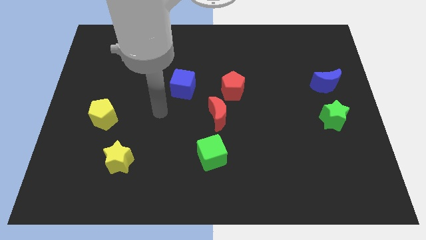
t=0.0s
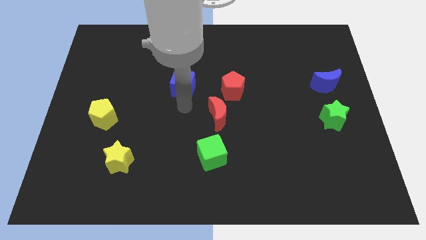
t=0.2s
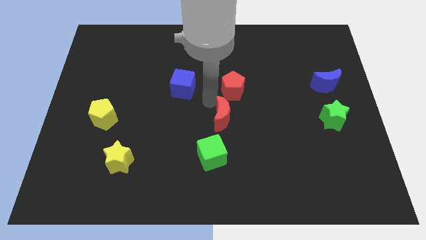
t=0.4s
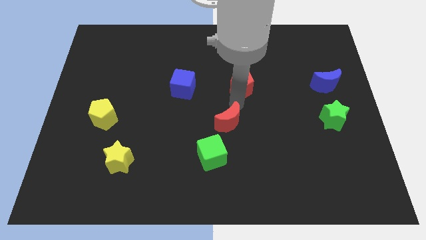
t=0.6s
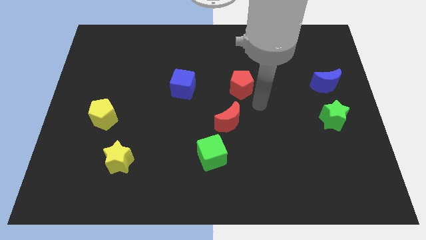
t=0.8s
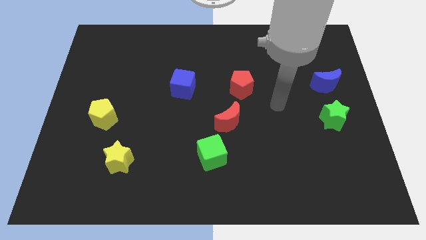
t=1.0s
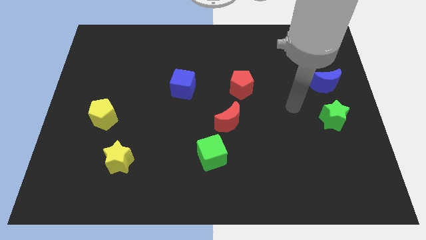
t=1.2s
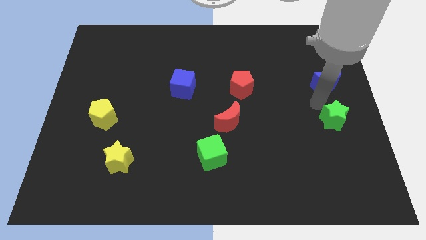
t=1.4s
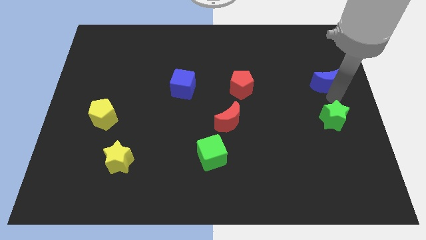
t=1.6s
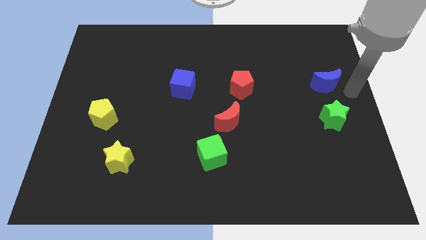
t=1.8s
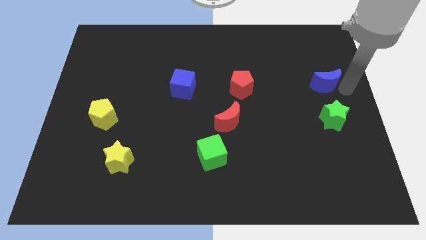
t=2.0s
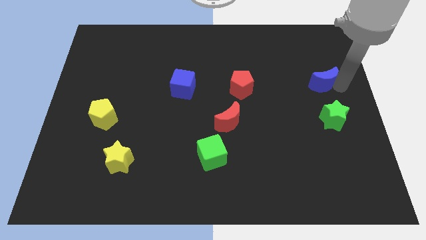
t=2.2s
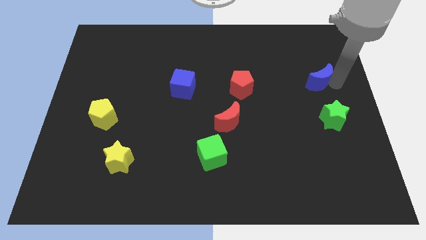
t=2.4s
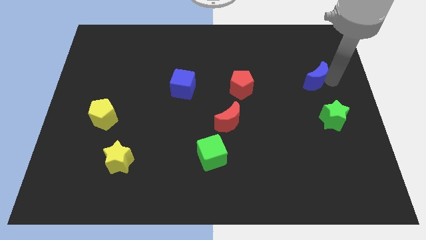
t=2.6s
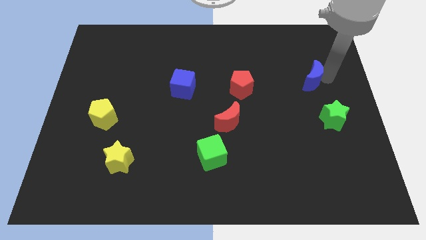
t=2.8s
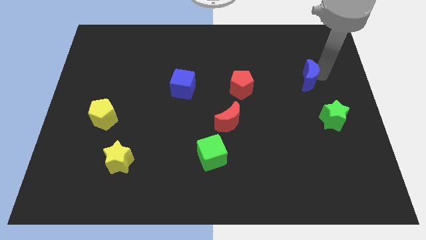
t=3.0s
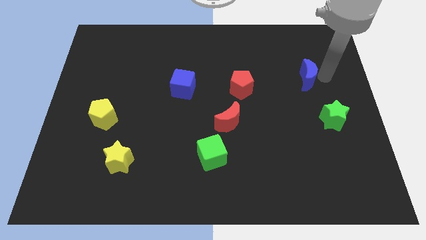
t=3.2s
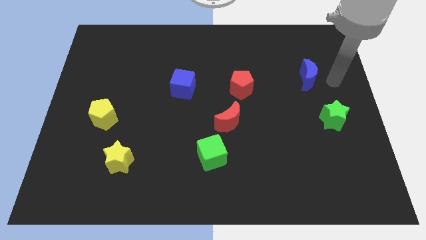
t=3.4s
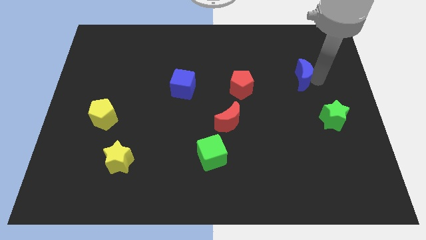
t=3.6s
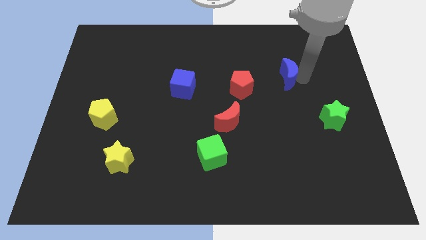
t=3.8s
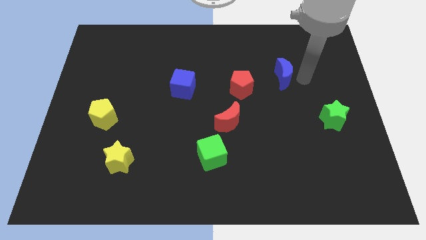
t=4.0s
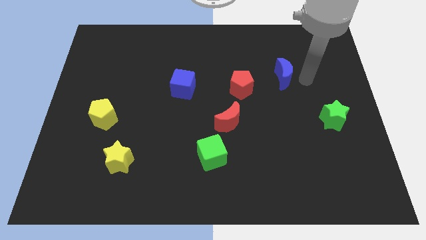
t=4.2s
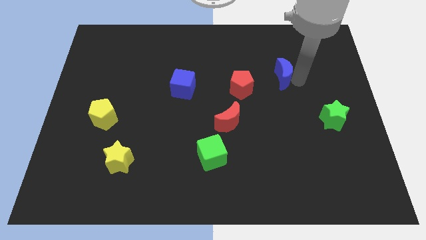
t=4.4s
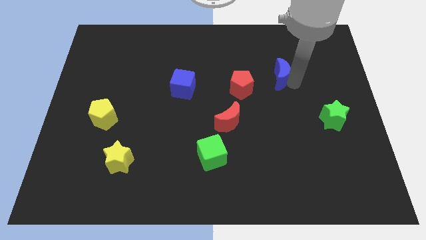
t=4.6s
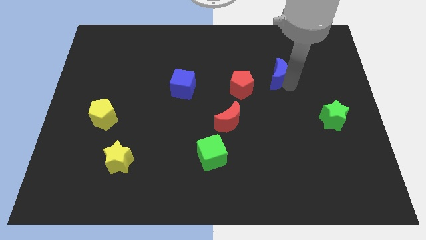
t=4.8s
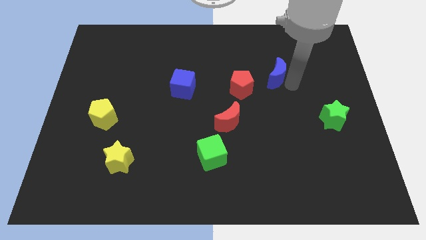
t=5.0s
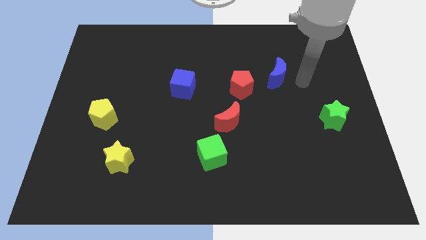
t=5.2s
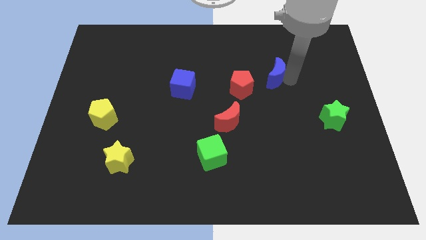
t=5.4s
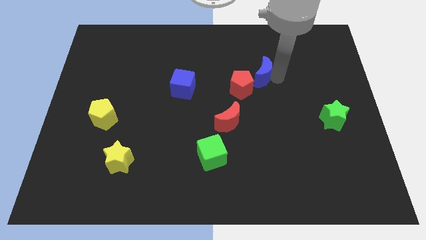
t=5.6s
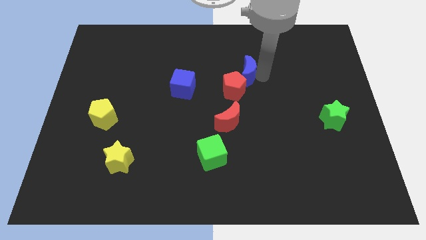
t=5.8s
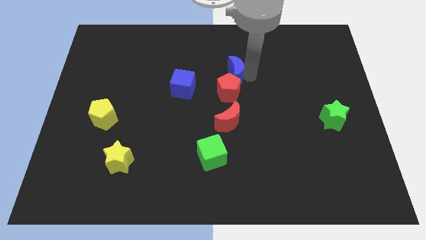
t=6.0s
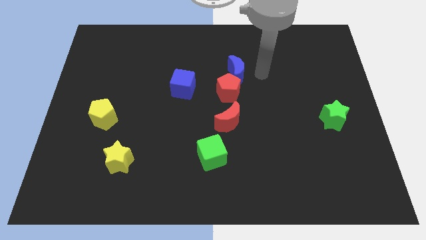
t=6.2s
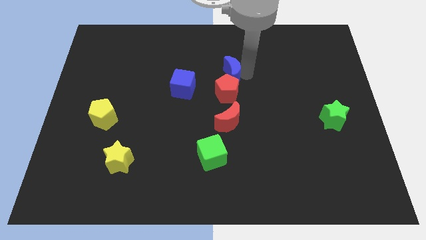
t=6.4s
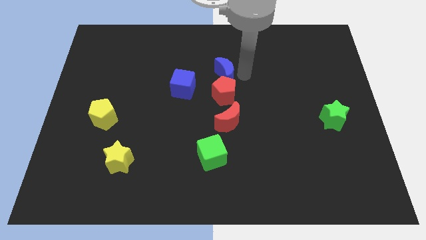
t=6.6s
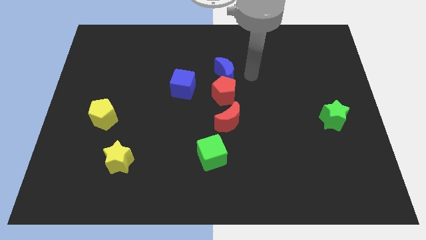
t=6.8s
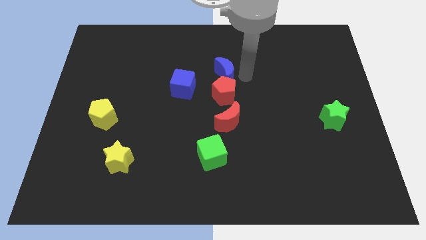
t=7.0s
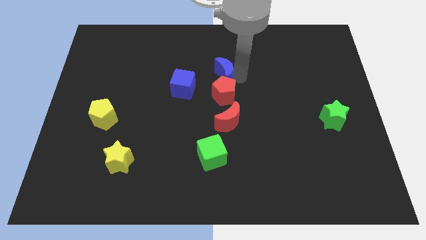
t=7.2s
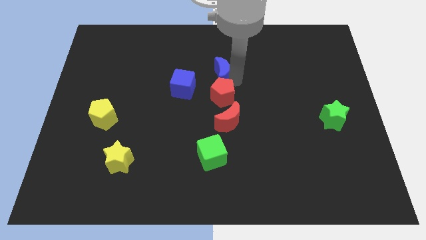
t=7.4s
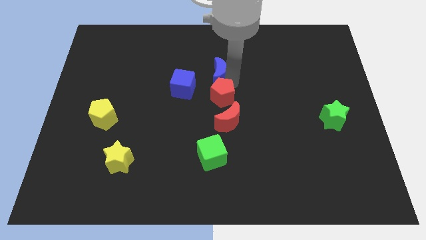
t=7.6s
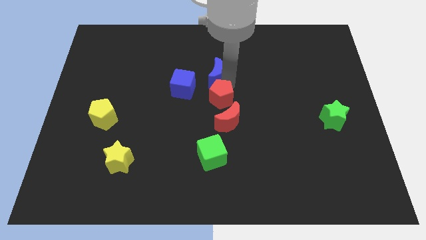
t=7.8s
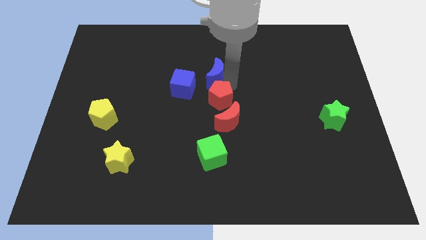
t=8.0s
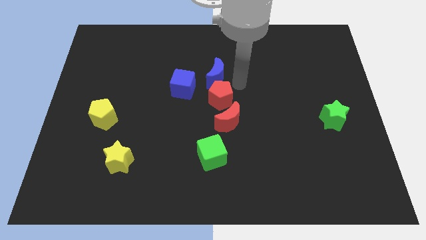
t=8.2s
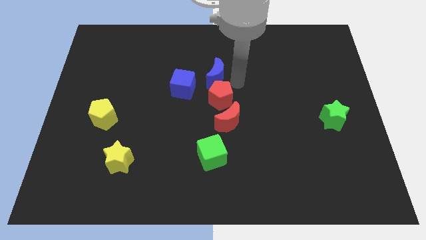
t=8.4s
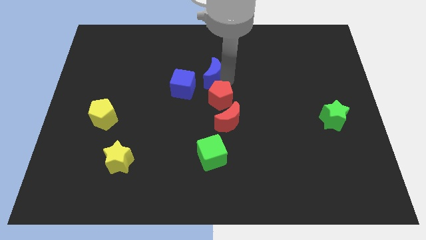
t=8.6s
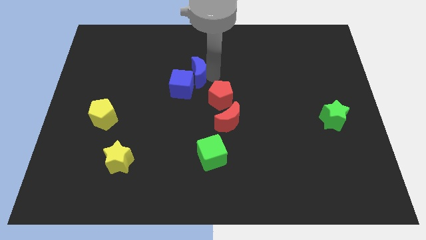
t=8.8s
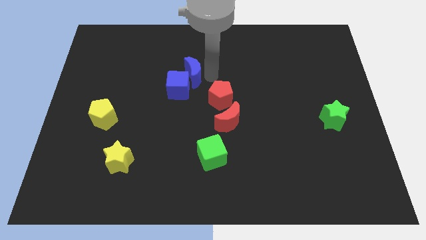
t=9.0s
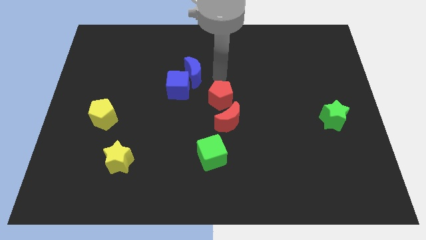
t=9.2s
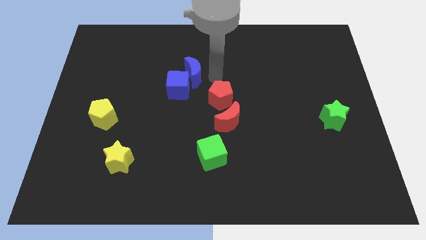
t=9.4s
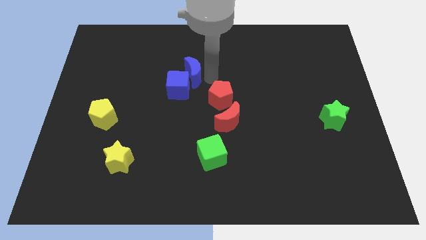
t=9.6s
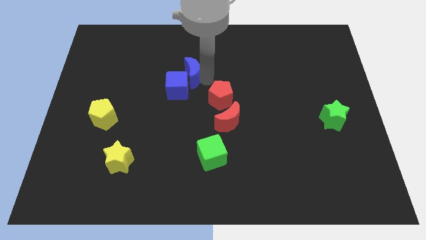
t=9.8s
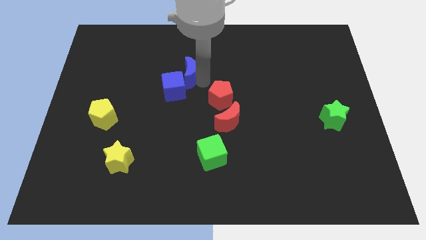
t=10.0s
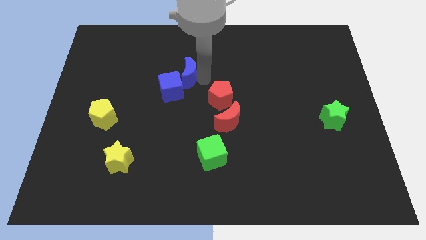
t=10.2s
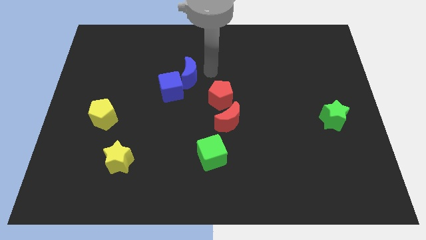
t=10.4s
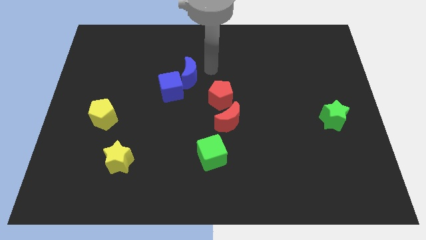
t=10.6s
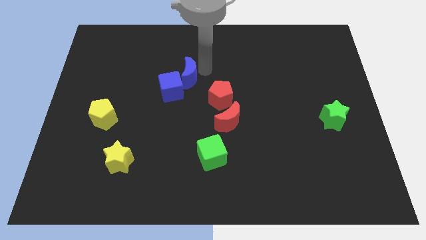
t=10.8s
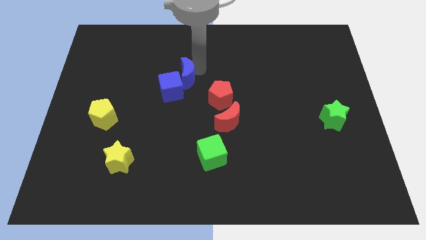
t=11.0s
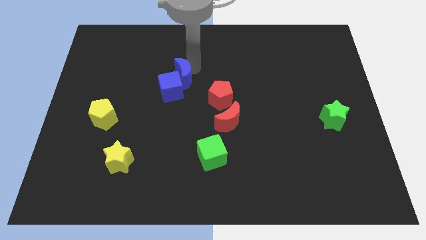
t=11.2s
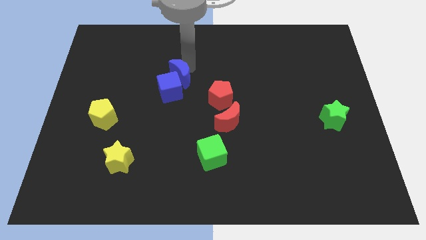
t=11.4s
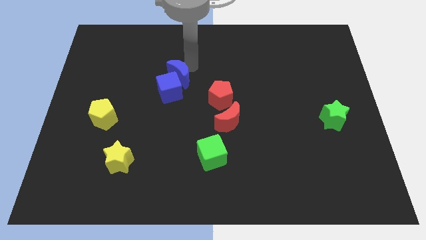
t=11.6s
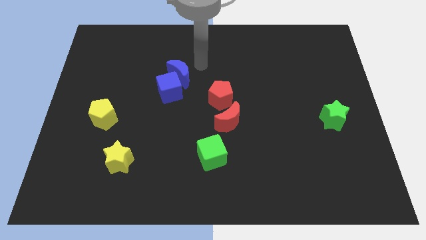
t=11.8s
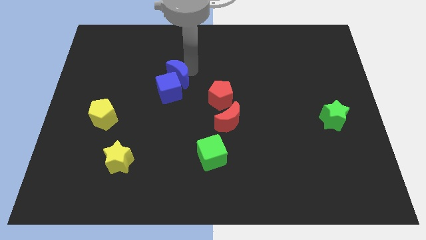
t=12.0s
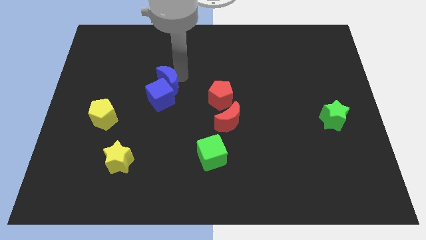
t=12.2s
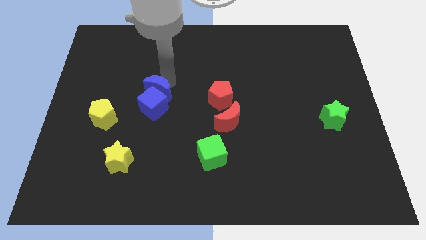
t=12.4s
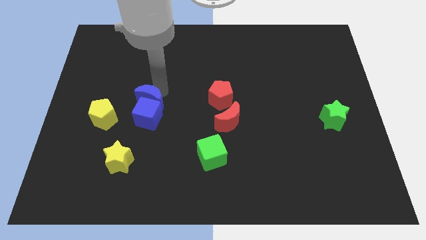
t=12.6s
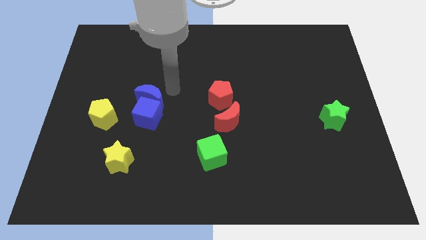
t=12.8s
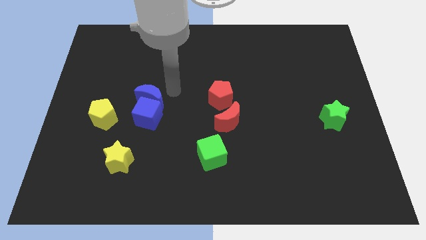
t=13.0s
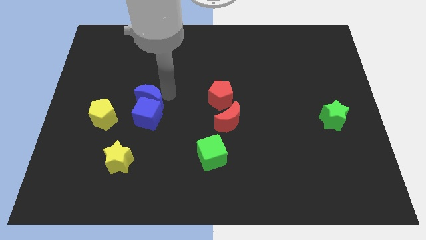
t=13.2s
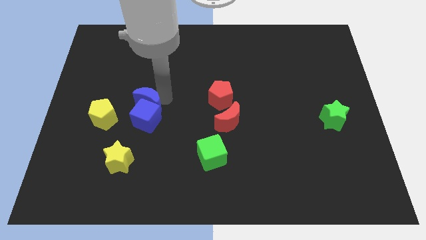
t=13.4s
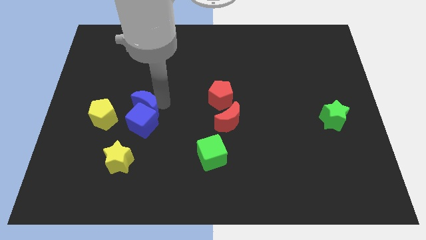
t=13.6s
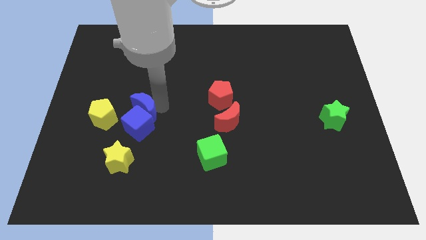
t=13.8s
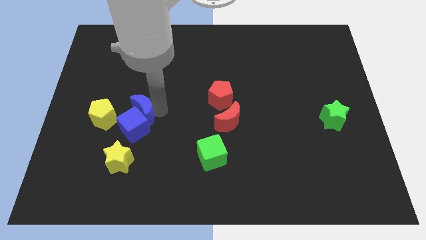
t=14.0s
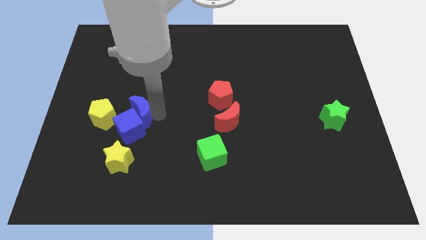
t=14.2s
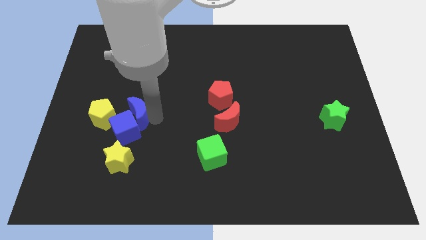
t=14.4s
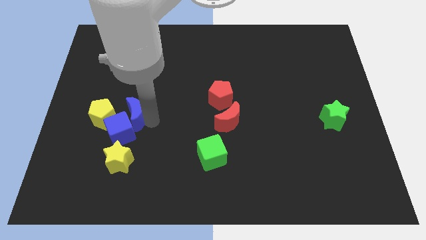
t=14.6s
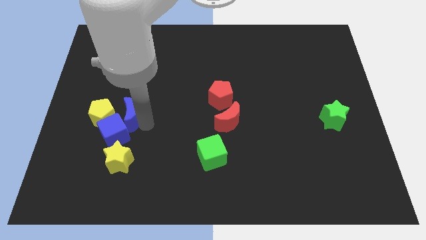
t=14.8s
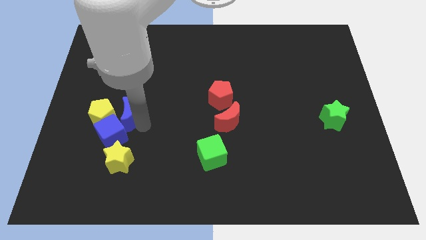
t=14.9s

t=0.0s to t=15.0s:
put the blue moon to the yellow pentagon
